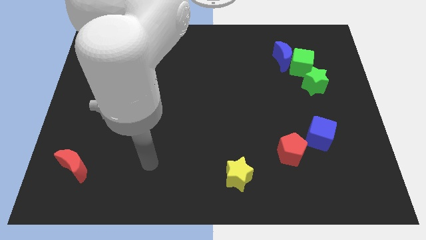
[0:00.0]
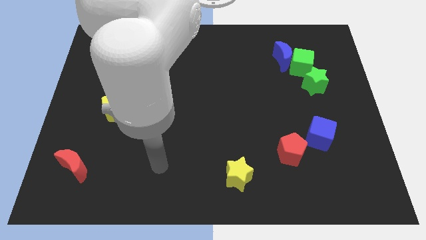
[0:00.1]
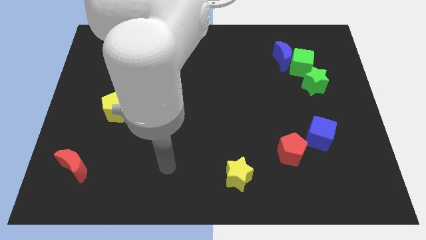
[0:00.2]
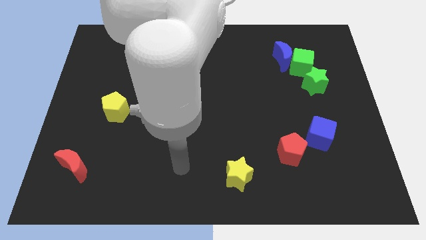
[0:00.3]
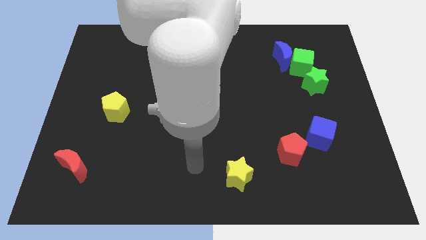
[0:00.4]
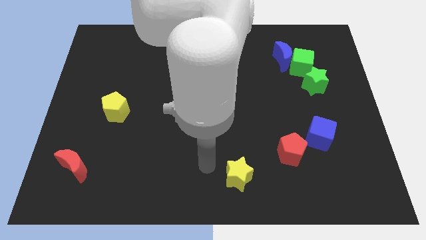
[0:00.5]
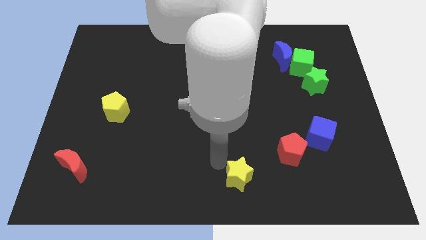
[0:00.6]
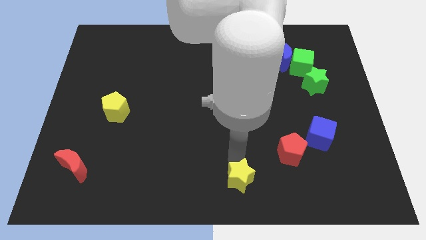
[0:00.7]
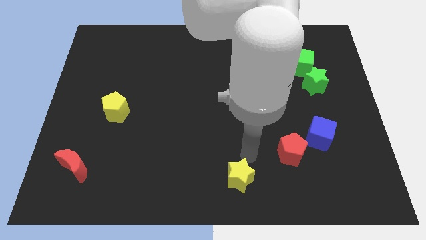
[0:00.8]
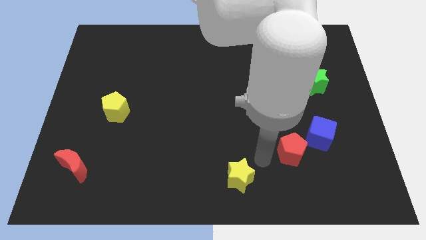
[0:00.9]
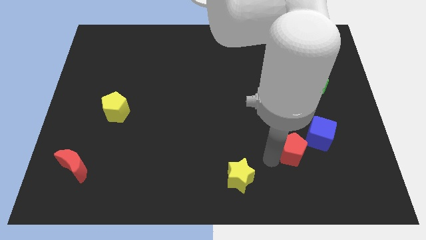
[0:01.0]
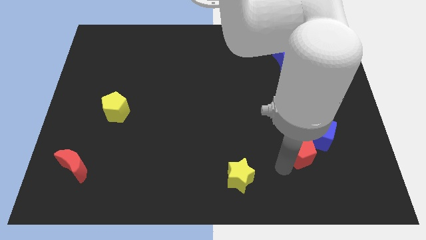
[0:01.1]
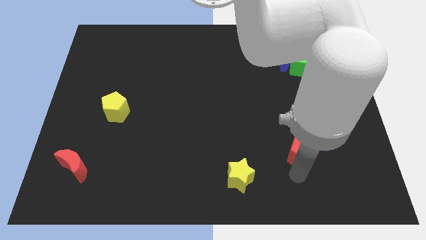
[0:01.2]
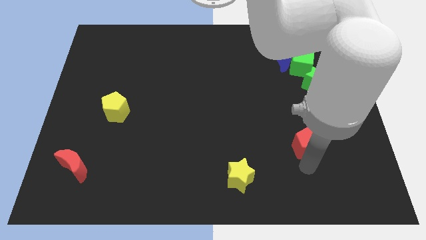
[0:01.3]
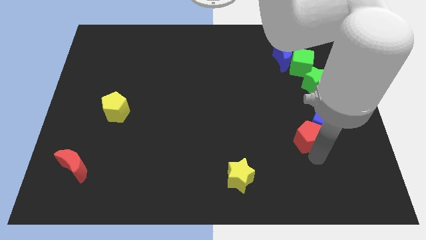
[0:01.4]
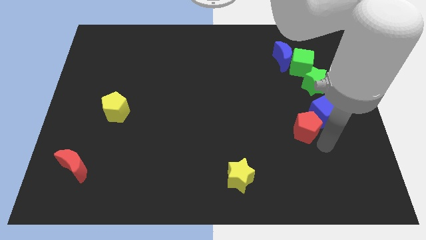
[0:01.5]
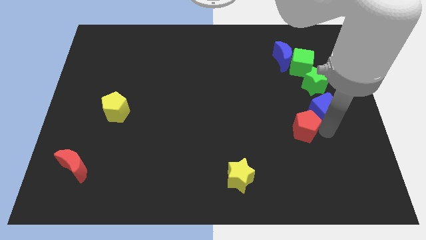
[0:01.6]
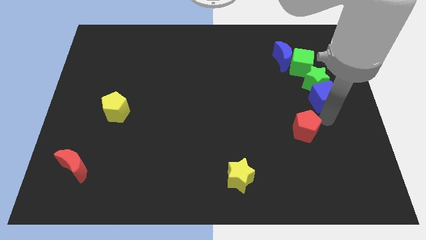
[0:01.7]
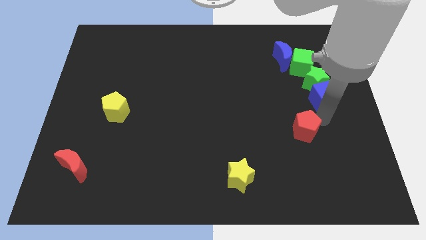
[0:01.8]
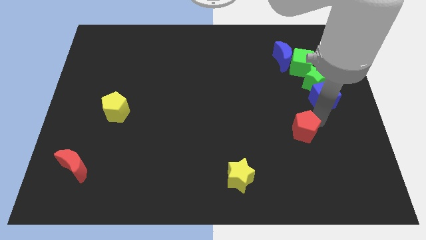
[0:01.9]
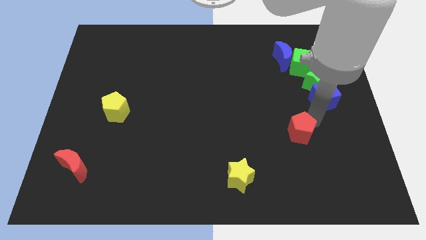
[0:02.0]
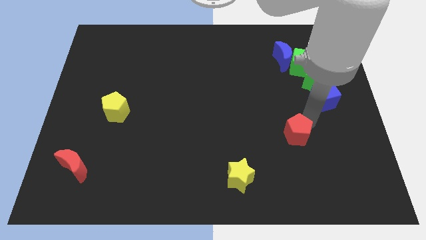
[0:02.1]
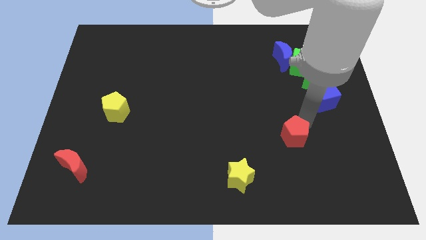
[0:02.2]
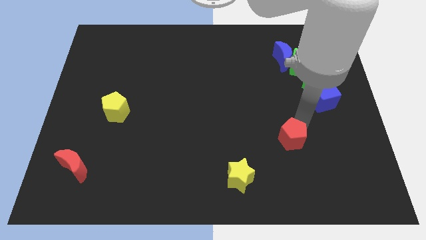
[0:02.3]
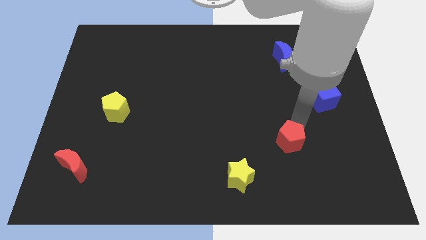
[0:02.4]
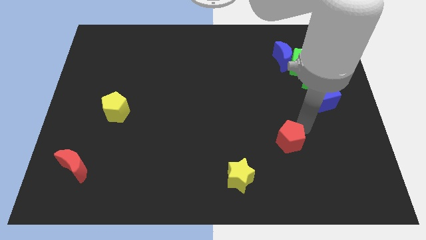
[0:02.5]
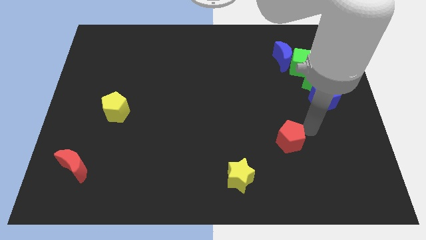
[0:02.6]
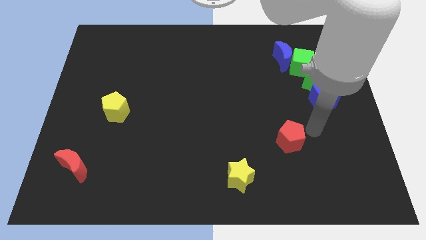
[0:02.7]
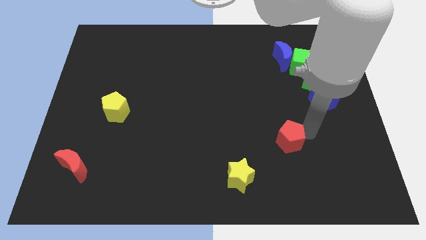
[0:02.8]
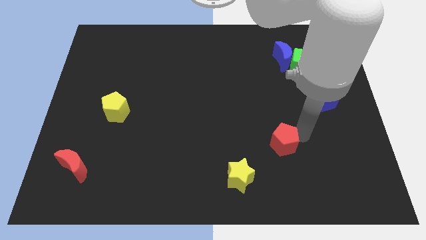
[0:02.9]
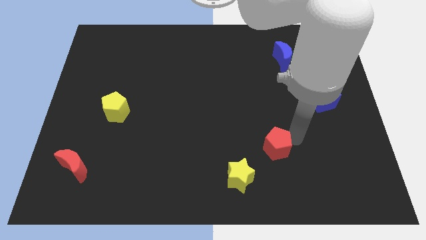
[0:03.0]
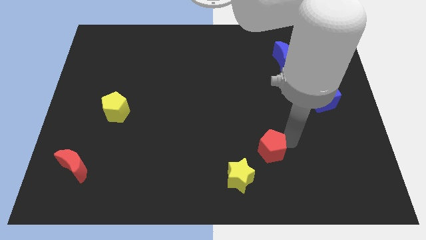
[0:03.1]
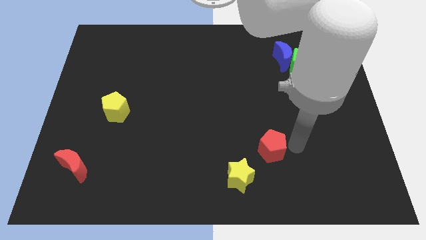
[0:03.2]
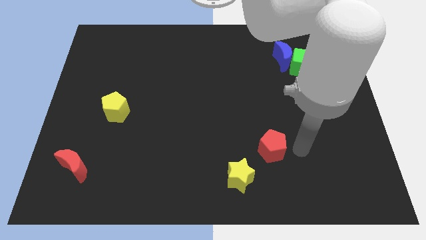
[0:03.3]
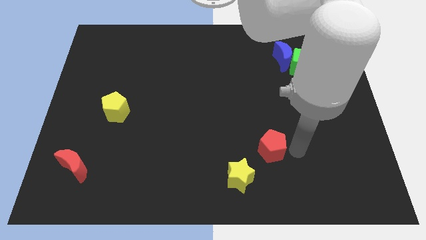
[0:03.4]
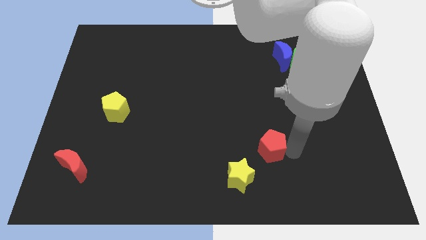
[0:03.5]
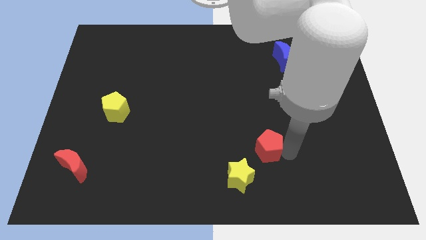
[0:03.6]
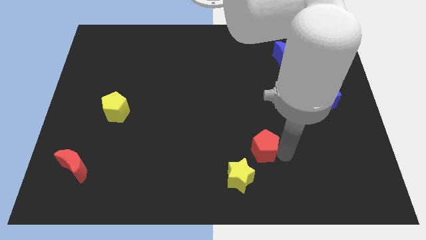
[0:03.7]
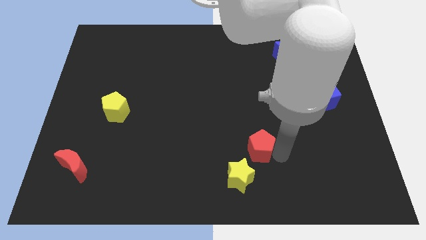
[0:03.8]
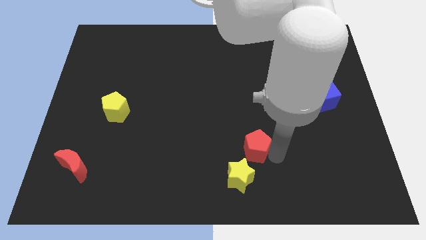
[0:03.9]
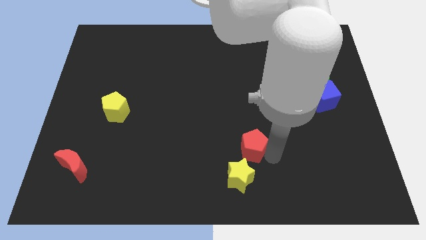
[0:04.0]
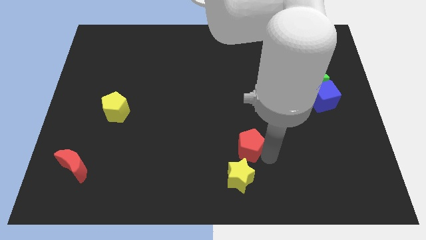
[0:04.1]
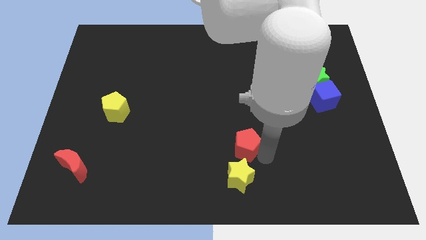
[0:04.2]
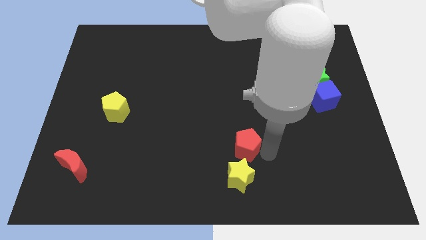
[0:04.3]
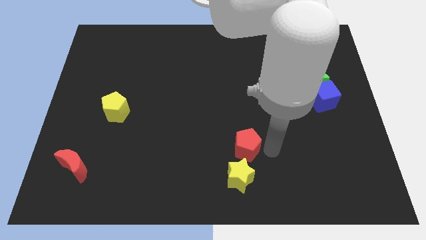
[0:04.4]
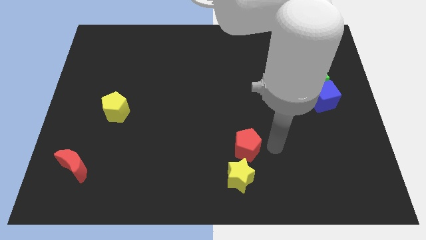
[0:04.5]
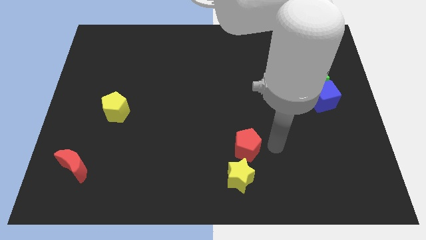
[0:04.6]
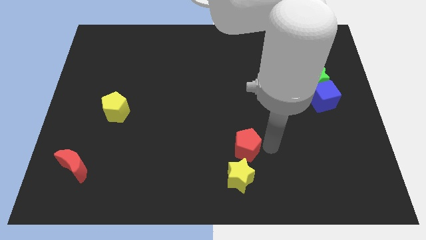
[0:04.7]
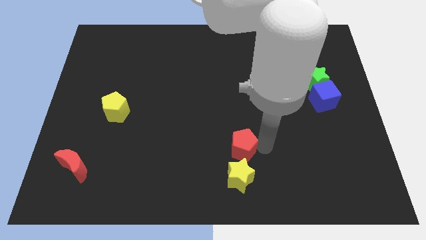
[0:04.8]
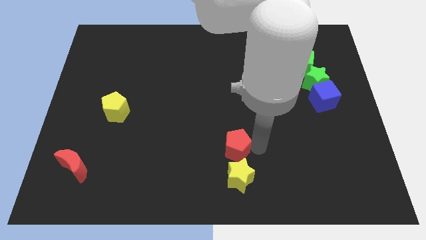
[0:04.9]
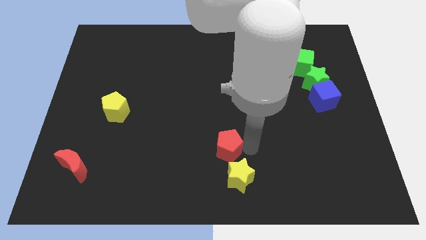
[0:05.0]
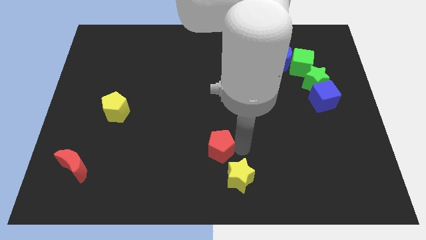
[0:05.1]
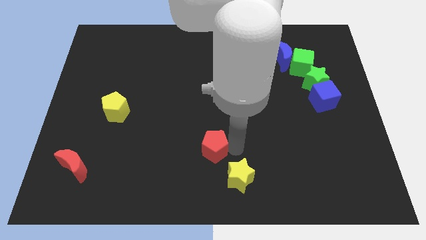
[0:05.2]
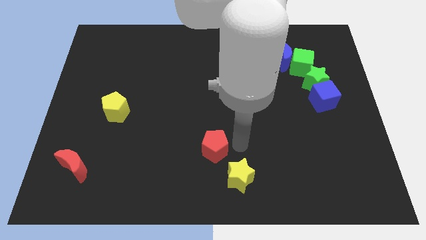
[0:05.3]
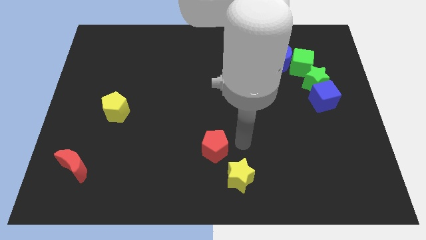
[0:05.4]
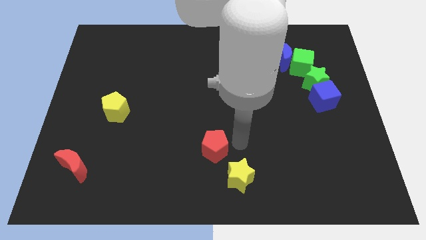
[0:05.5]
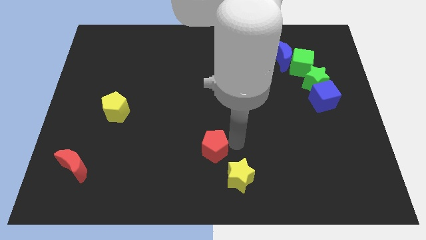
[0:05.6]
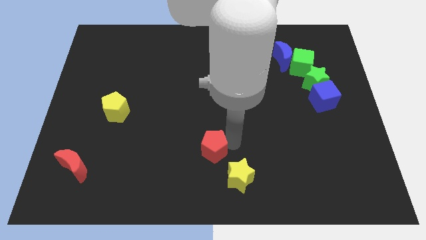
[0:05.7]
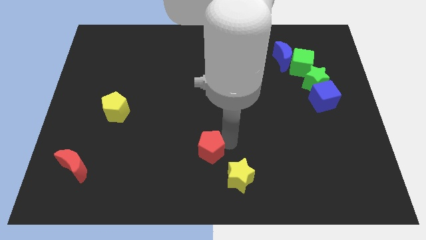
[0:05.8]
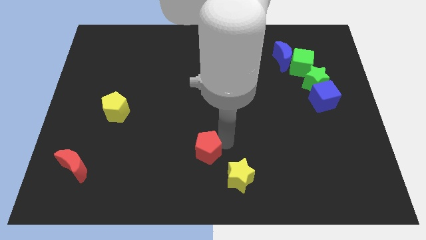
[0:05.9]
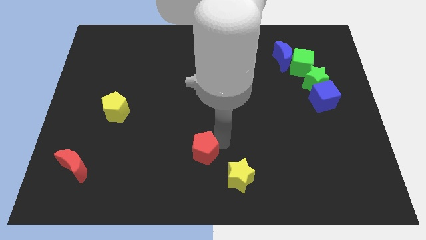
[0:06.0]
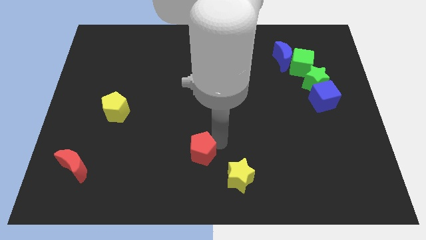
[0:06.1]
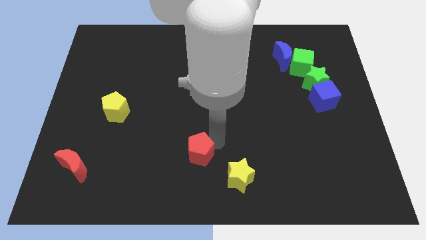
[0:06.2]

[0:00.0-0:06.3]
push the red pentagon to the left

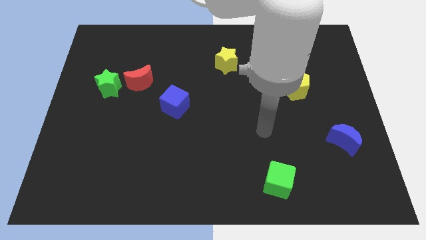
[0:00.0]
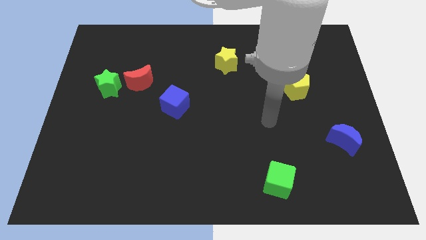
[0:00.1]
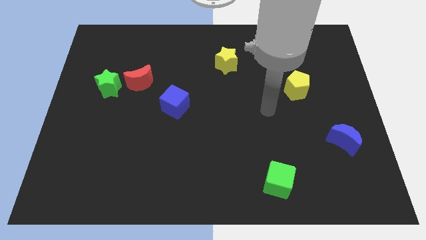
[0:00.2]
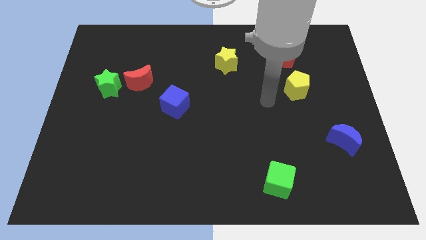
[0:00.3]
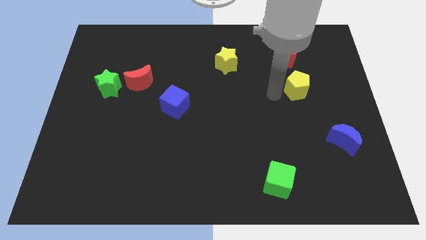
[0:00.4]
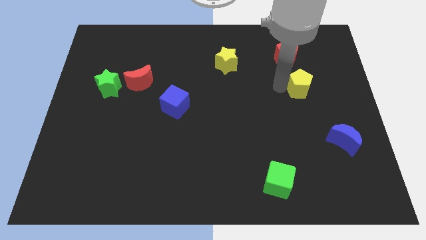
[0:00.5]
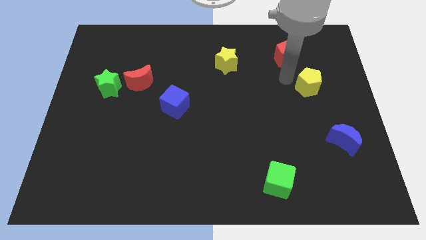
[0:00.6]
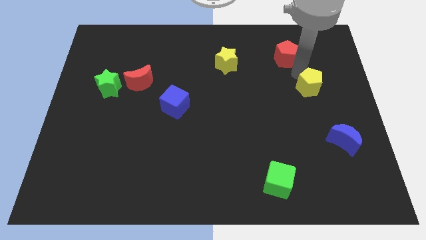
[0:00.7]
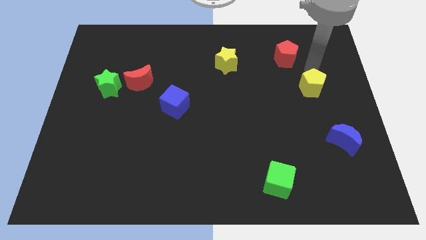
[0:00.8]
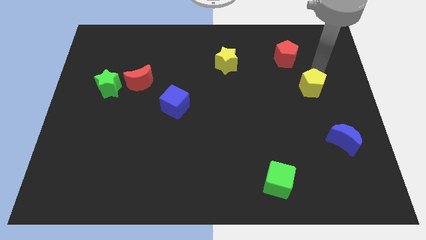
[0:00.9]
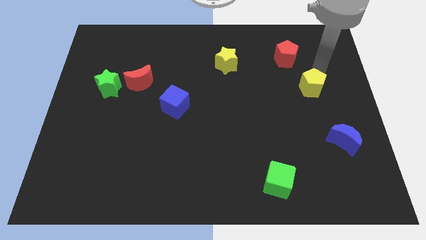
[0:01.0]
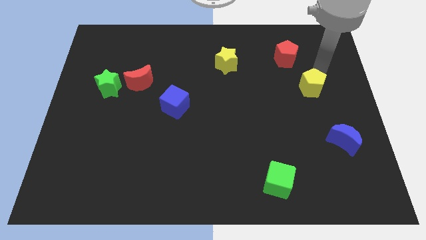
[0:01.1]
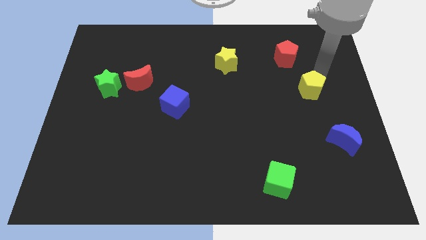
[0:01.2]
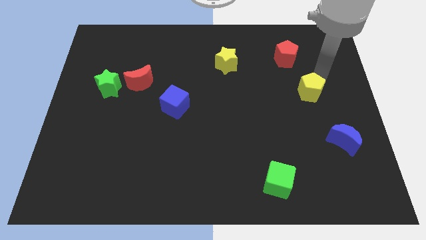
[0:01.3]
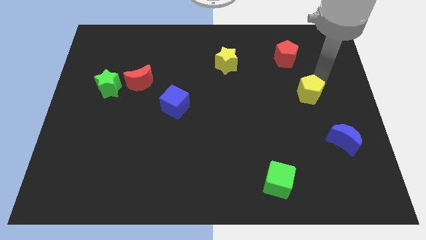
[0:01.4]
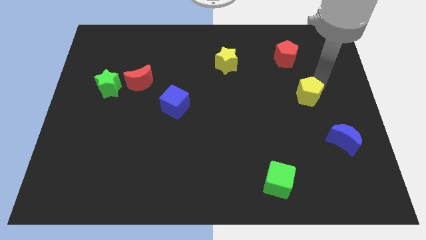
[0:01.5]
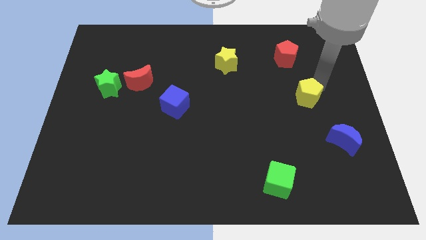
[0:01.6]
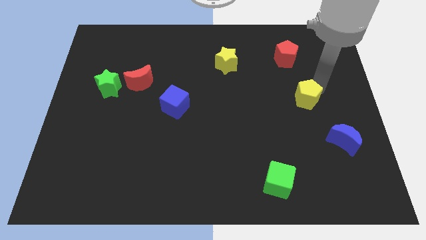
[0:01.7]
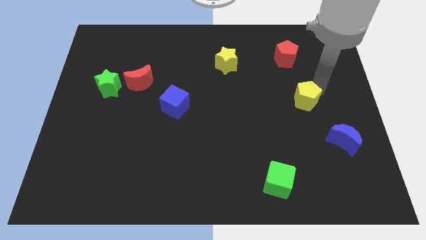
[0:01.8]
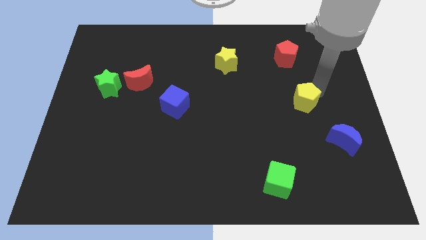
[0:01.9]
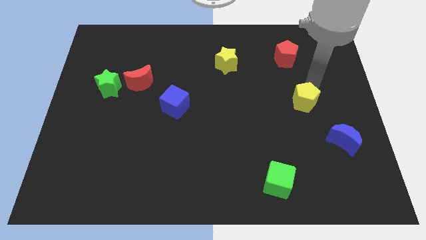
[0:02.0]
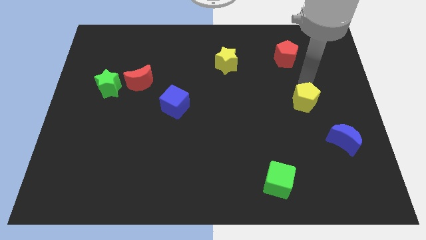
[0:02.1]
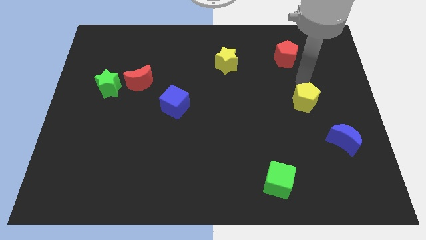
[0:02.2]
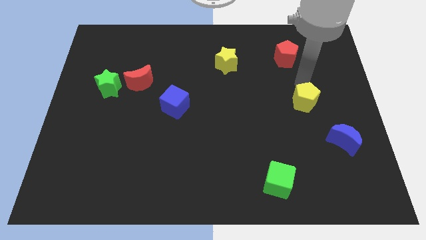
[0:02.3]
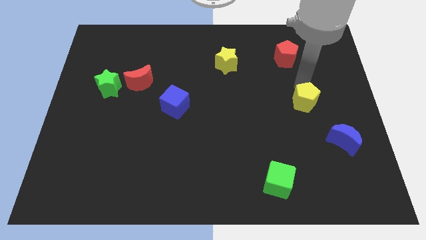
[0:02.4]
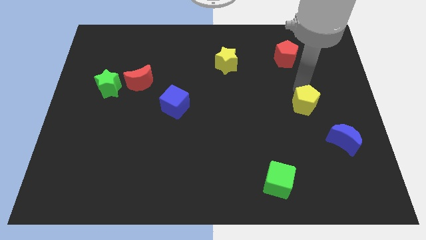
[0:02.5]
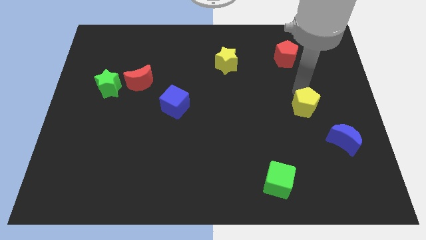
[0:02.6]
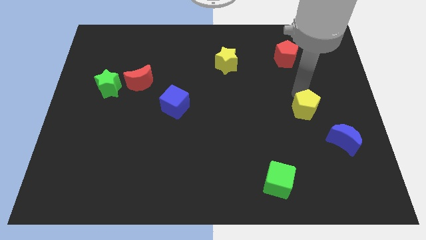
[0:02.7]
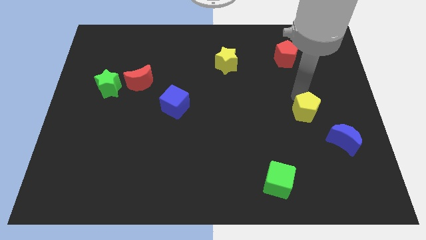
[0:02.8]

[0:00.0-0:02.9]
slide the yellow pentagon down somewhat
